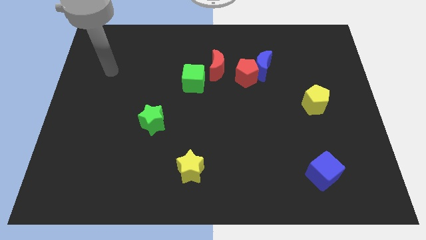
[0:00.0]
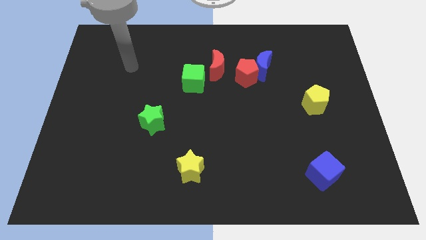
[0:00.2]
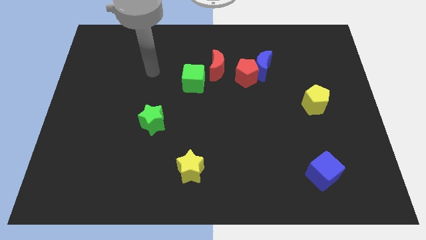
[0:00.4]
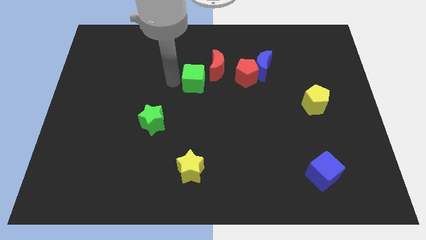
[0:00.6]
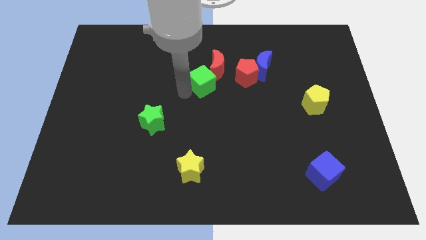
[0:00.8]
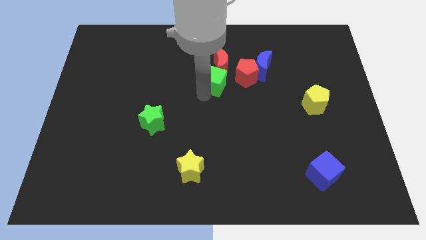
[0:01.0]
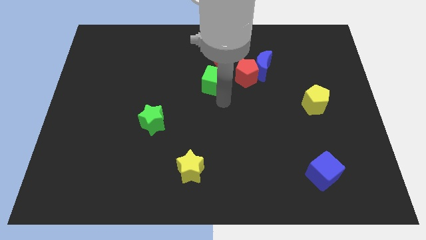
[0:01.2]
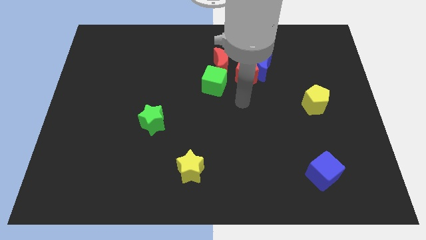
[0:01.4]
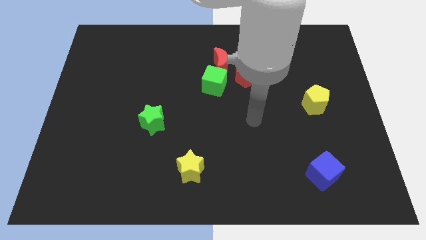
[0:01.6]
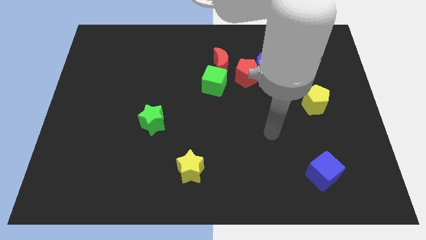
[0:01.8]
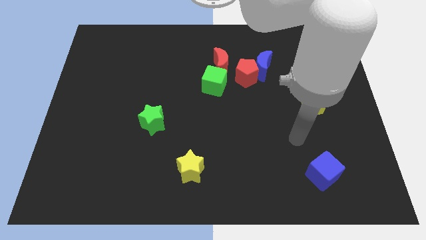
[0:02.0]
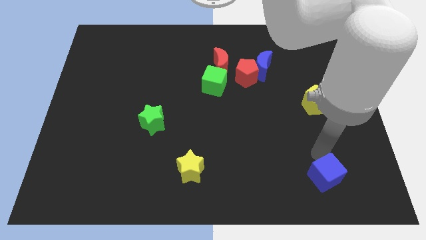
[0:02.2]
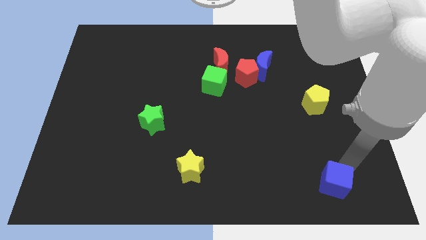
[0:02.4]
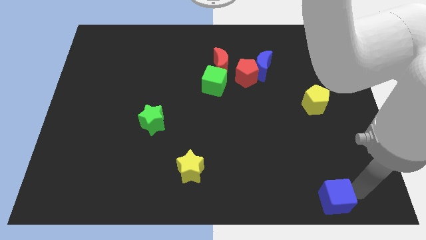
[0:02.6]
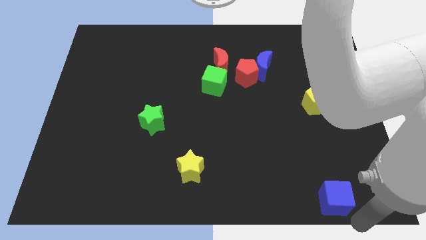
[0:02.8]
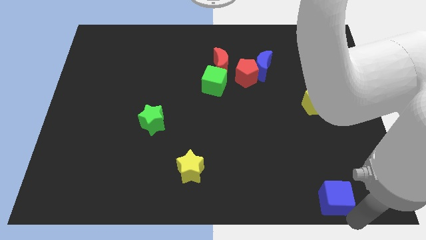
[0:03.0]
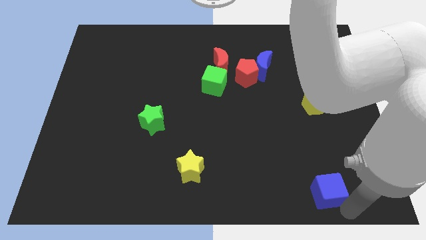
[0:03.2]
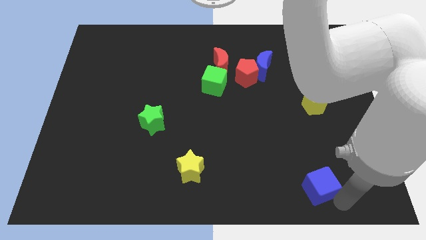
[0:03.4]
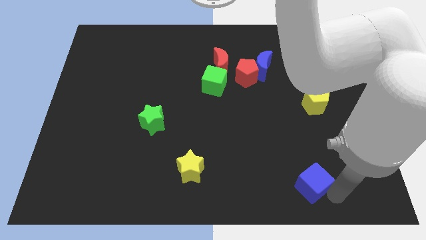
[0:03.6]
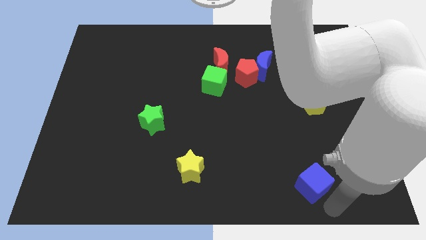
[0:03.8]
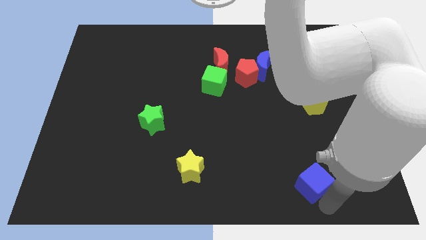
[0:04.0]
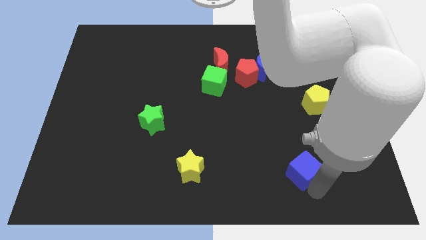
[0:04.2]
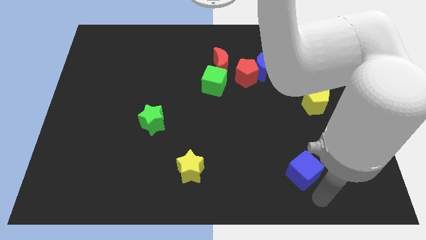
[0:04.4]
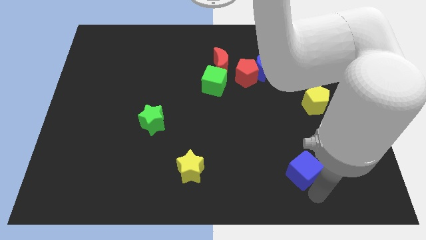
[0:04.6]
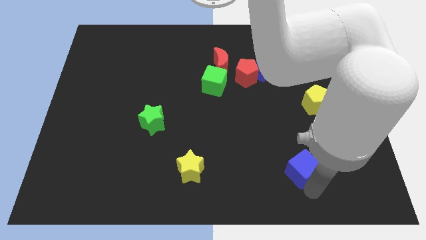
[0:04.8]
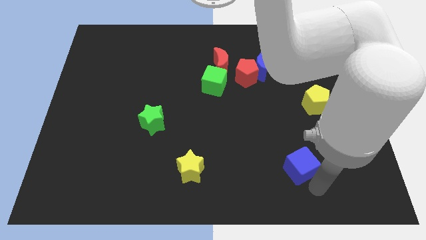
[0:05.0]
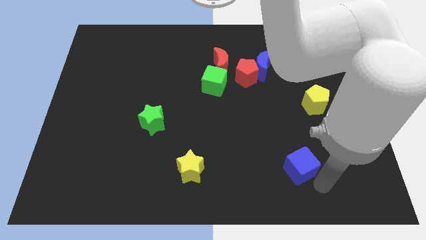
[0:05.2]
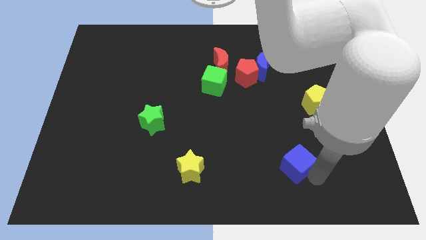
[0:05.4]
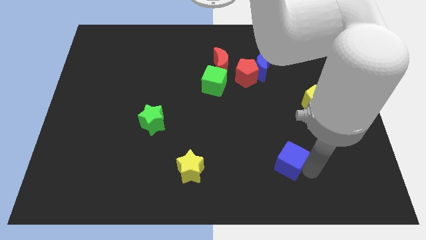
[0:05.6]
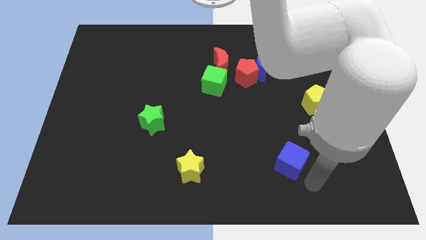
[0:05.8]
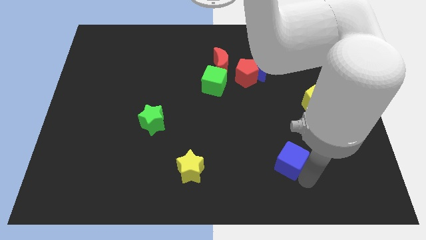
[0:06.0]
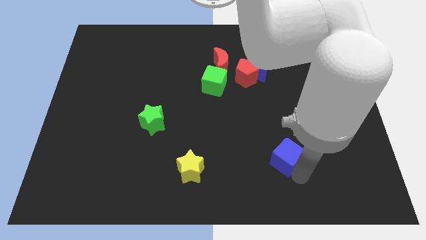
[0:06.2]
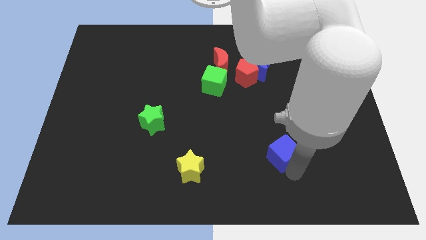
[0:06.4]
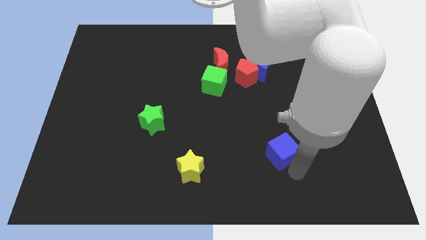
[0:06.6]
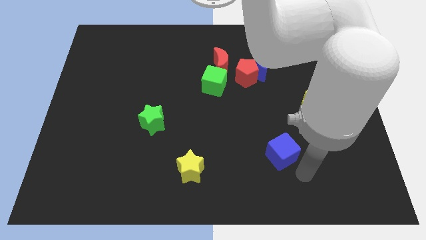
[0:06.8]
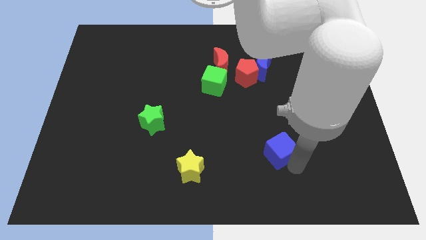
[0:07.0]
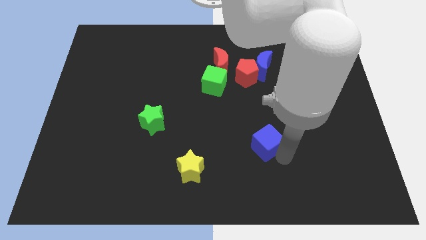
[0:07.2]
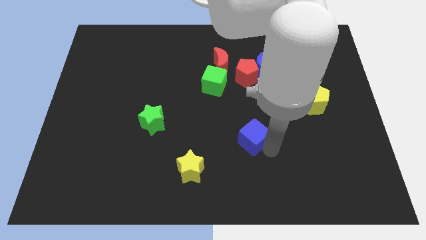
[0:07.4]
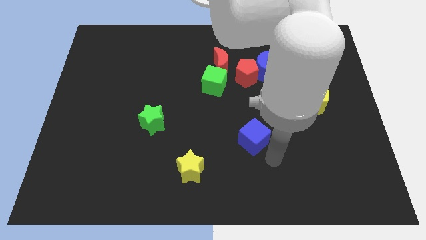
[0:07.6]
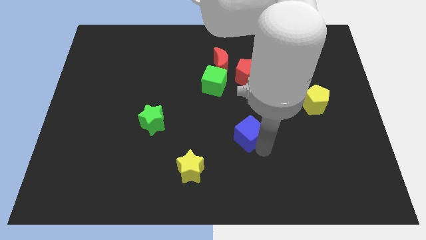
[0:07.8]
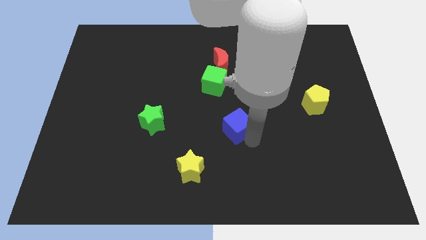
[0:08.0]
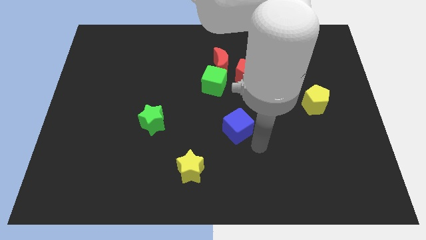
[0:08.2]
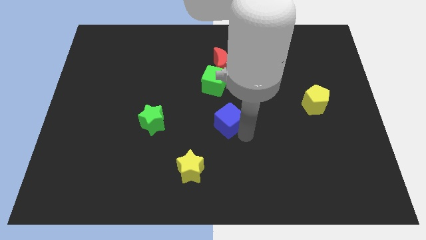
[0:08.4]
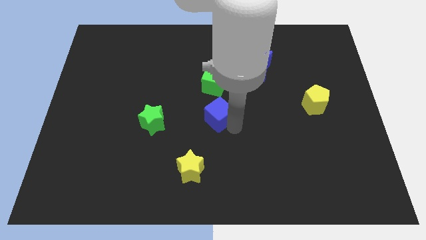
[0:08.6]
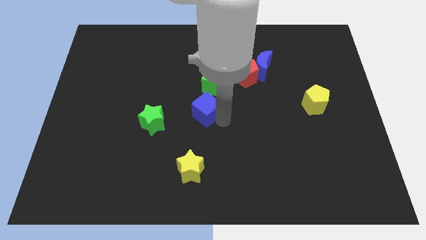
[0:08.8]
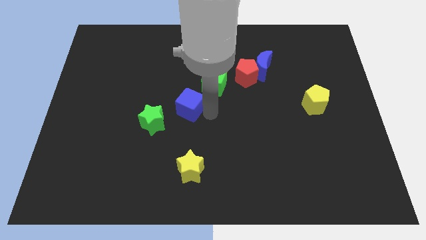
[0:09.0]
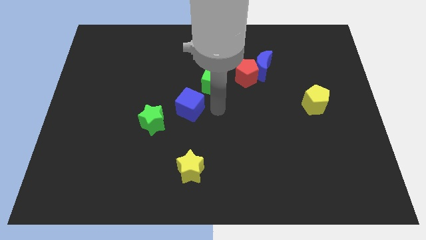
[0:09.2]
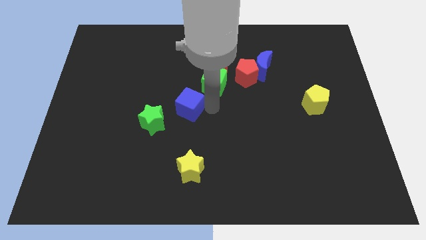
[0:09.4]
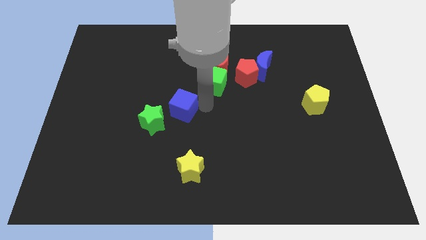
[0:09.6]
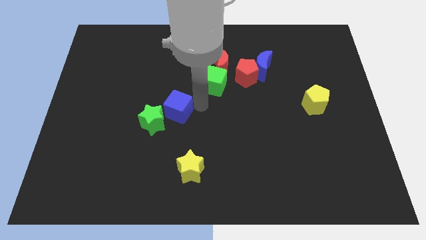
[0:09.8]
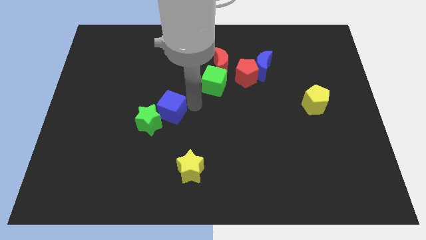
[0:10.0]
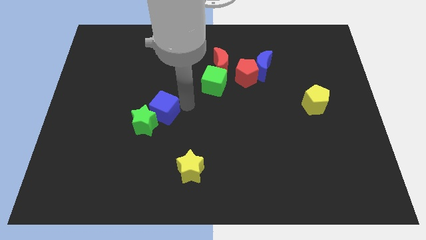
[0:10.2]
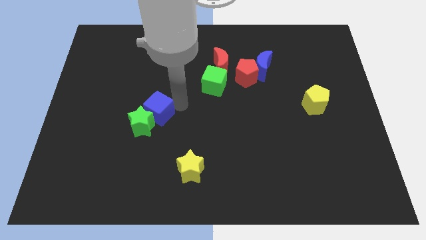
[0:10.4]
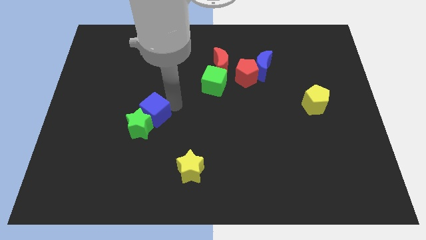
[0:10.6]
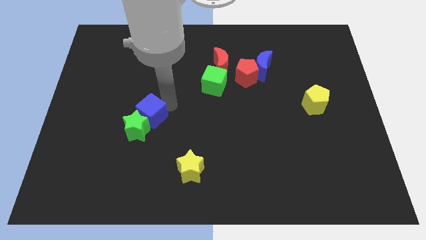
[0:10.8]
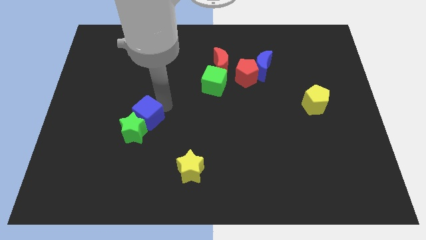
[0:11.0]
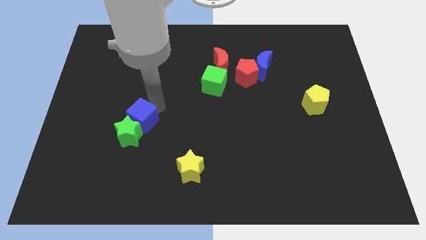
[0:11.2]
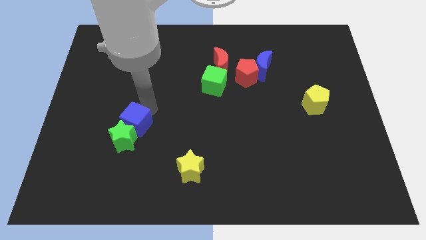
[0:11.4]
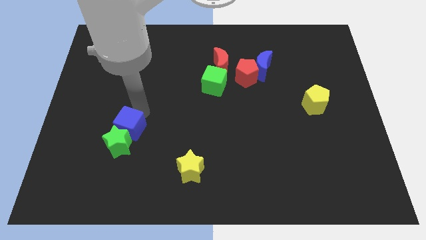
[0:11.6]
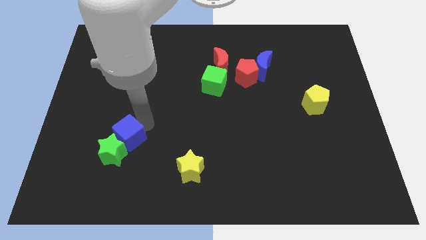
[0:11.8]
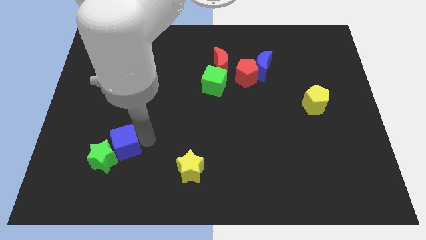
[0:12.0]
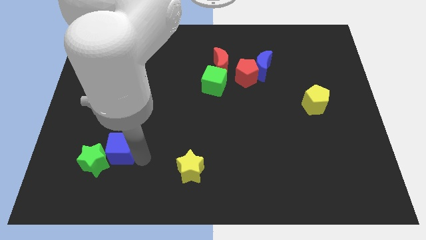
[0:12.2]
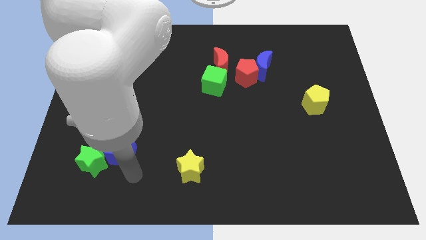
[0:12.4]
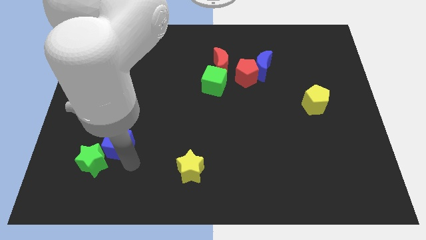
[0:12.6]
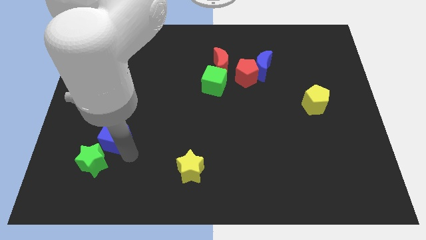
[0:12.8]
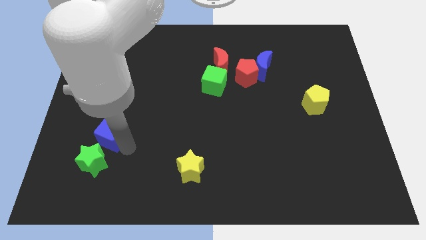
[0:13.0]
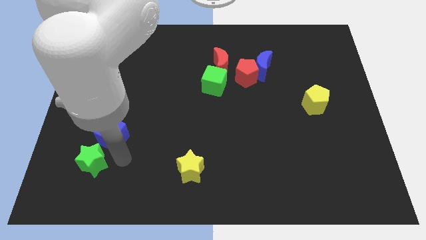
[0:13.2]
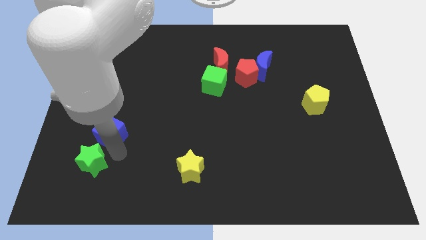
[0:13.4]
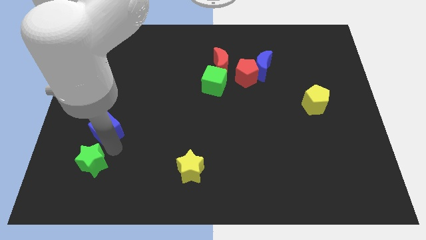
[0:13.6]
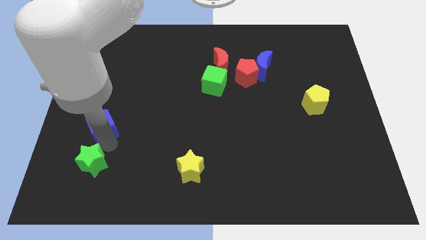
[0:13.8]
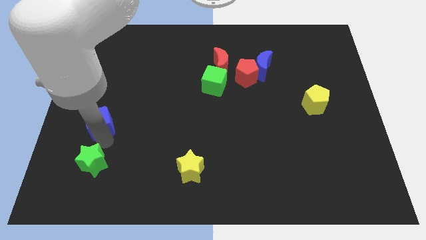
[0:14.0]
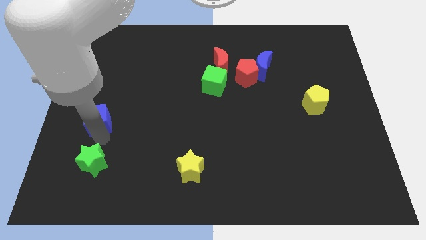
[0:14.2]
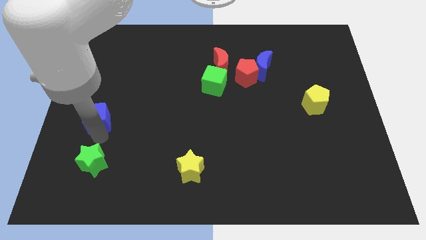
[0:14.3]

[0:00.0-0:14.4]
put the blue cube to the left side
